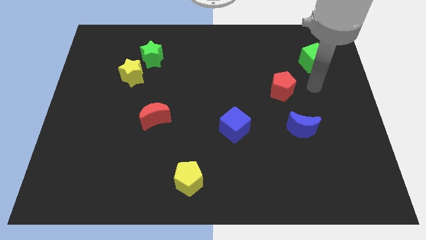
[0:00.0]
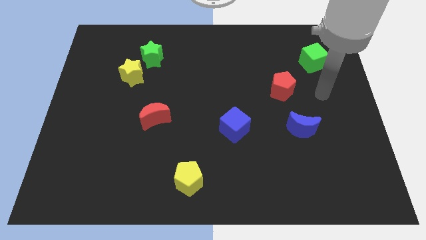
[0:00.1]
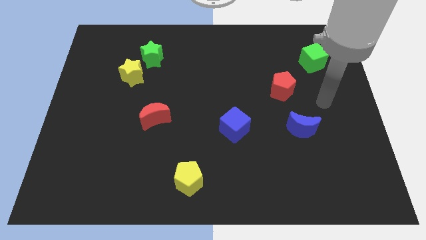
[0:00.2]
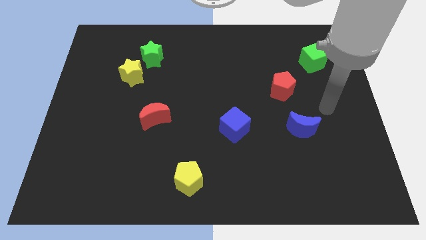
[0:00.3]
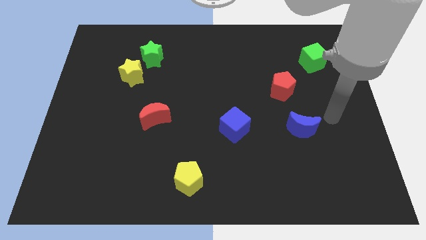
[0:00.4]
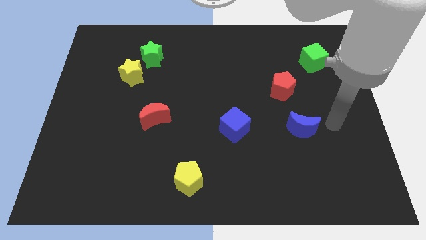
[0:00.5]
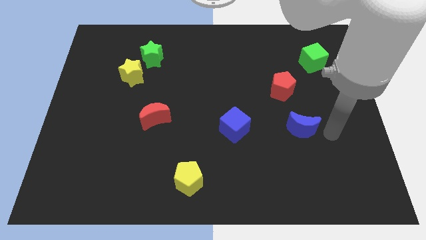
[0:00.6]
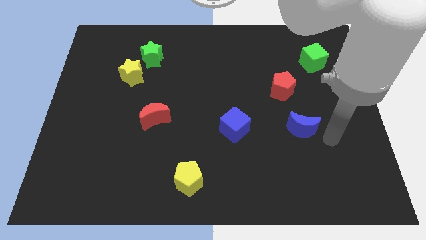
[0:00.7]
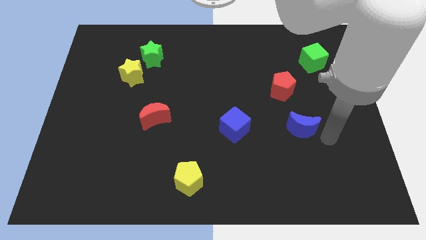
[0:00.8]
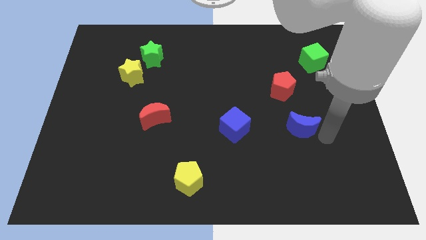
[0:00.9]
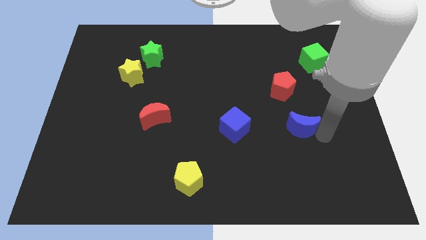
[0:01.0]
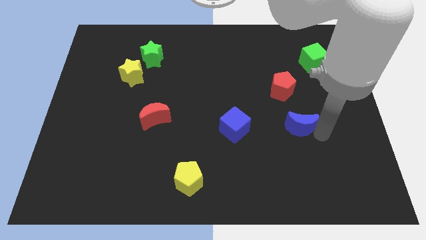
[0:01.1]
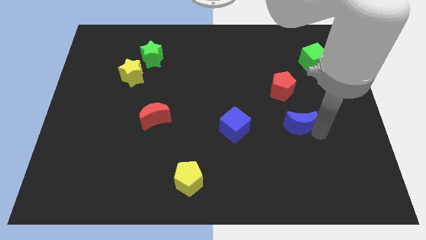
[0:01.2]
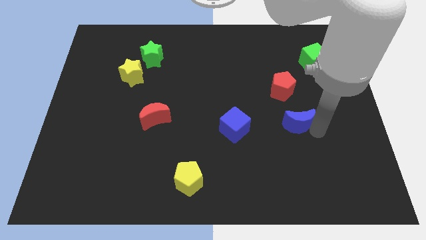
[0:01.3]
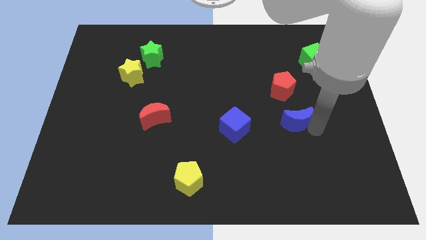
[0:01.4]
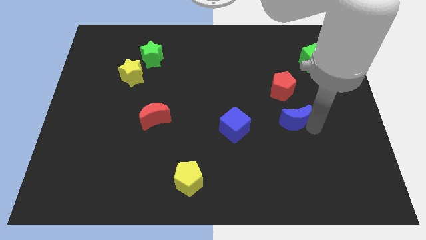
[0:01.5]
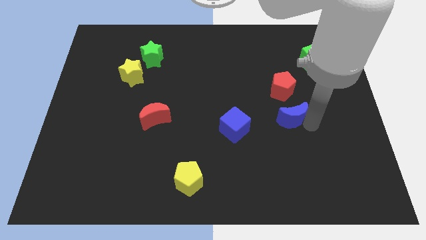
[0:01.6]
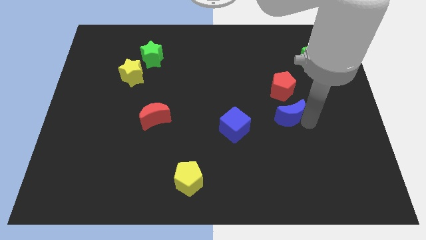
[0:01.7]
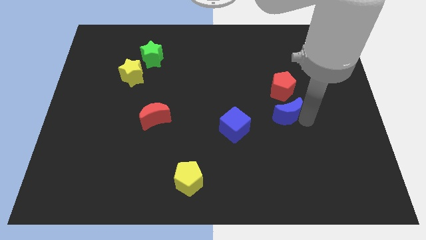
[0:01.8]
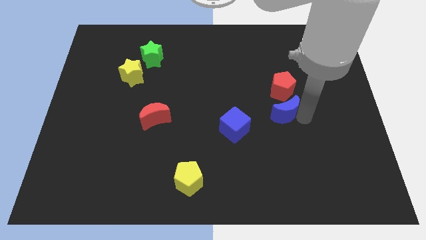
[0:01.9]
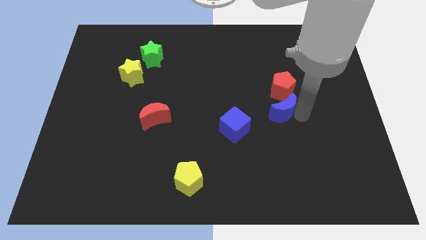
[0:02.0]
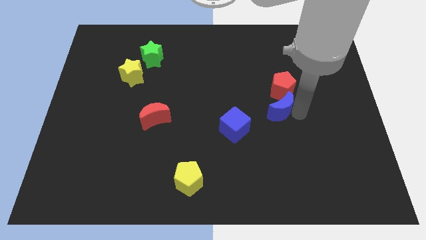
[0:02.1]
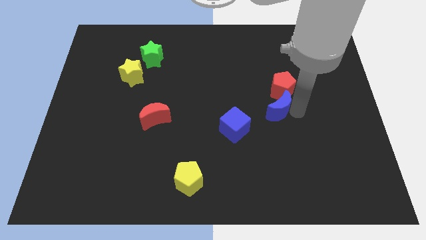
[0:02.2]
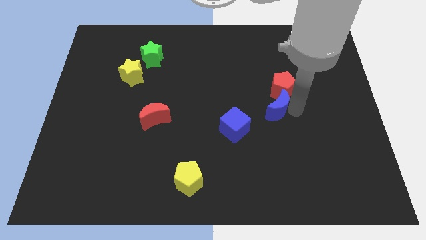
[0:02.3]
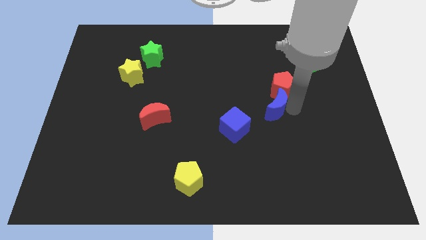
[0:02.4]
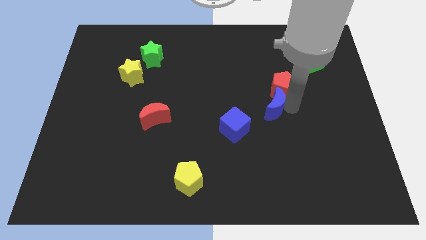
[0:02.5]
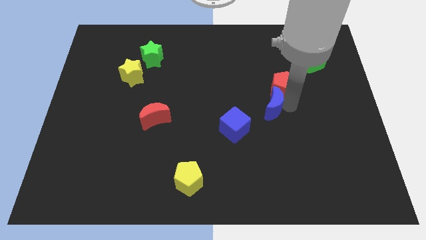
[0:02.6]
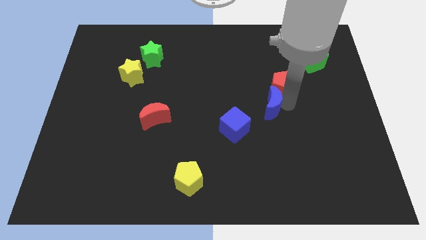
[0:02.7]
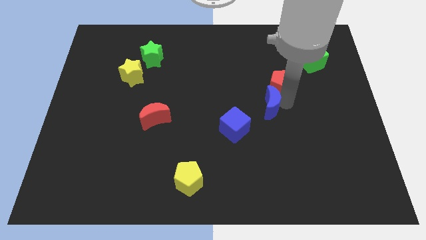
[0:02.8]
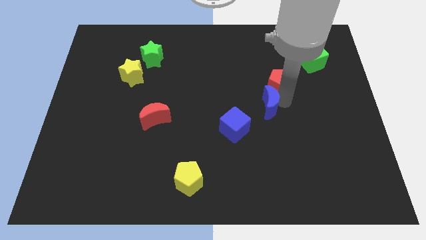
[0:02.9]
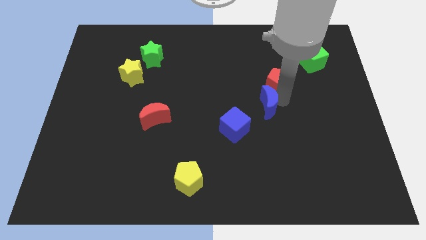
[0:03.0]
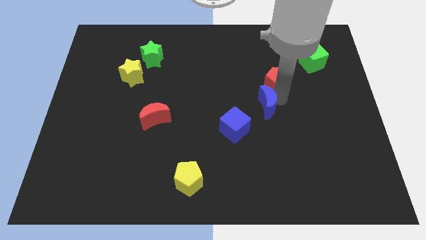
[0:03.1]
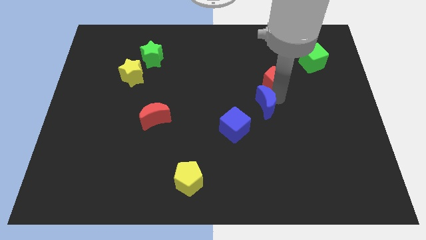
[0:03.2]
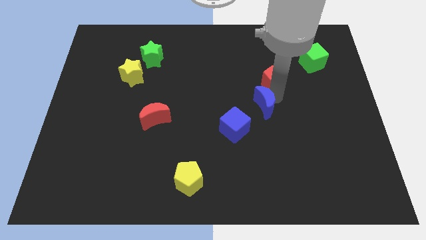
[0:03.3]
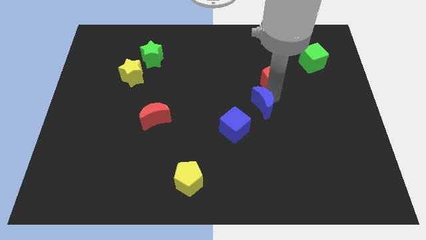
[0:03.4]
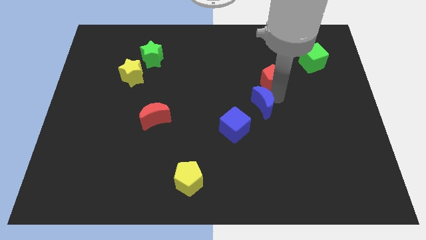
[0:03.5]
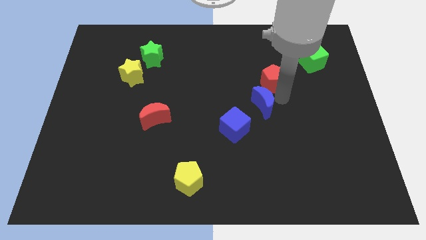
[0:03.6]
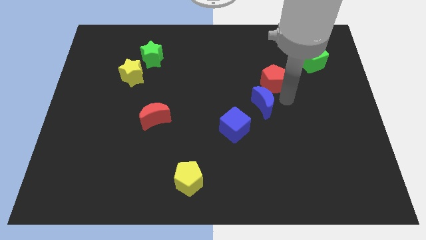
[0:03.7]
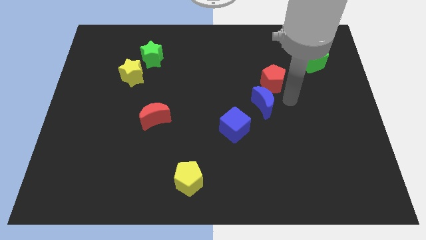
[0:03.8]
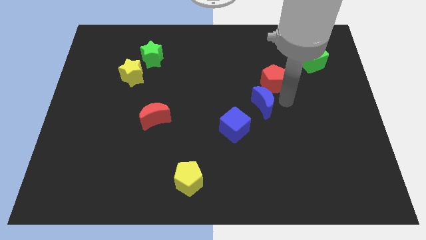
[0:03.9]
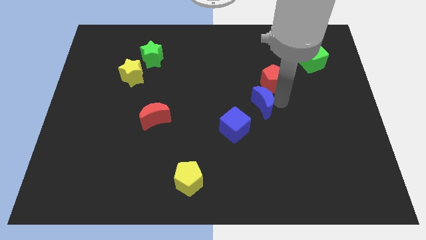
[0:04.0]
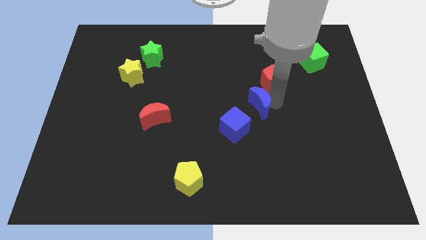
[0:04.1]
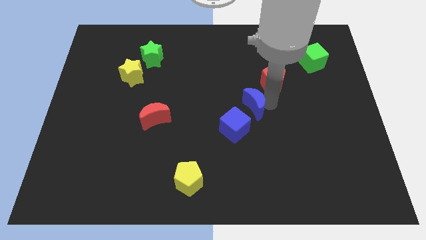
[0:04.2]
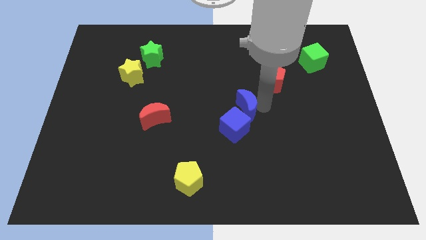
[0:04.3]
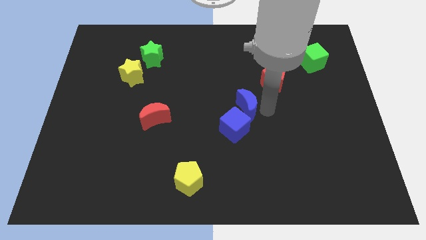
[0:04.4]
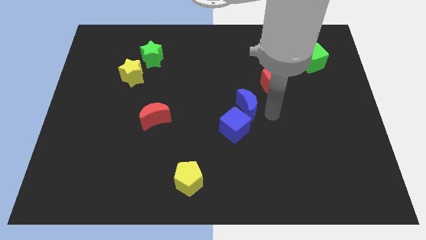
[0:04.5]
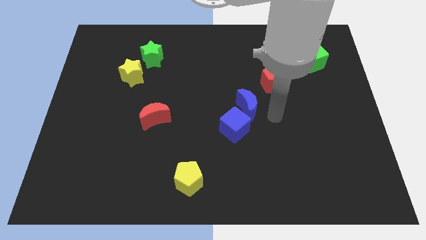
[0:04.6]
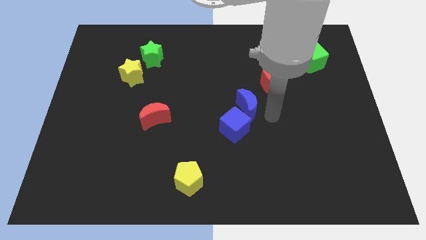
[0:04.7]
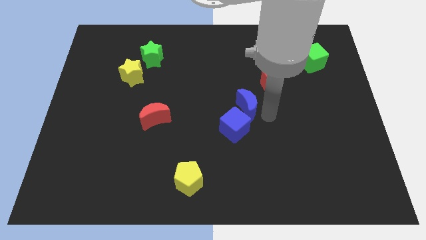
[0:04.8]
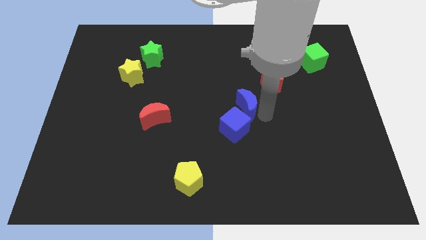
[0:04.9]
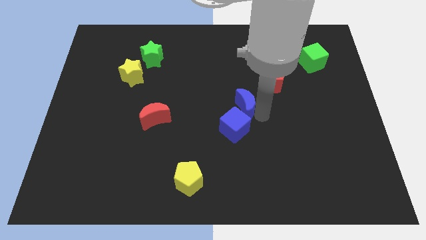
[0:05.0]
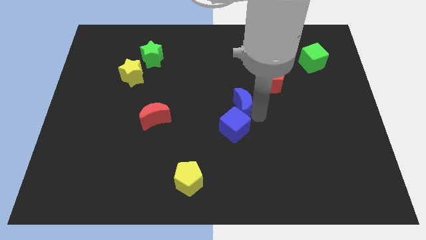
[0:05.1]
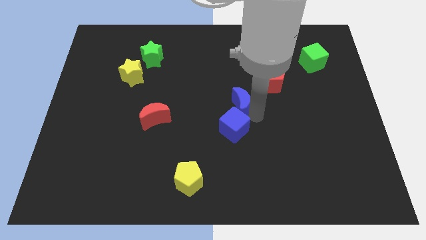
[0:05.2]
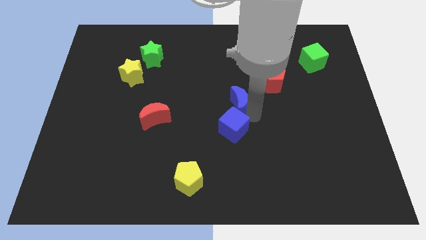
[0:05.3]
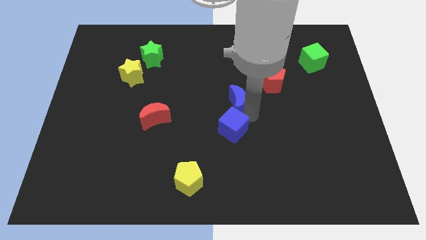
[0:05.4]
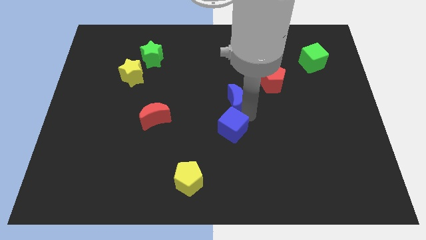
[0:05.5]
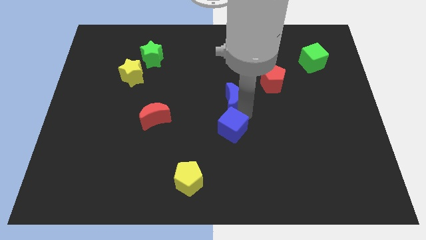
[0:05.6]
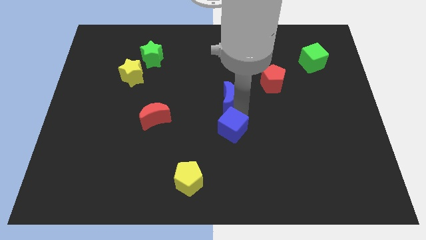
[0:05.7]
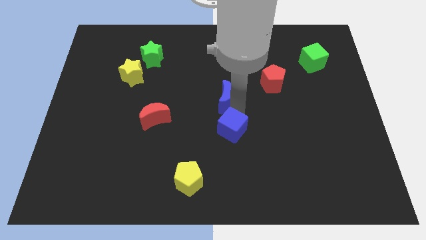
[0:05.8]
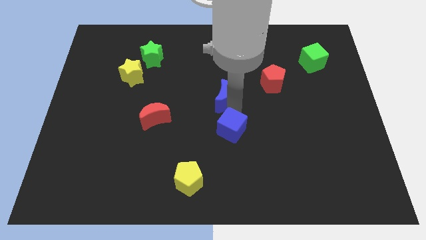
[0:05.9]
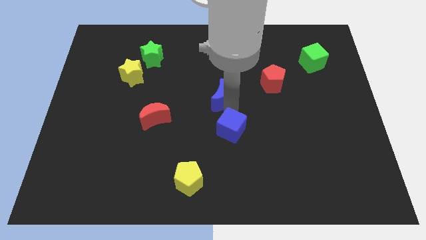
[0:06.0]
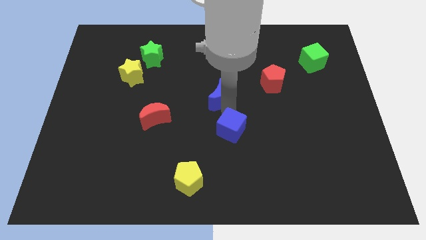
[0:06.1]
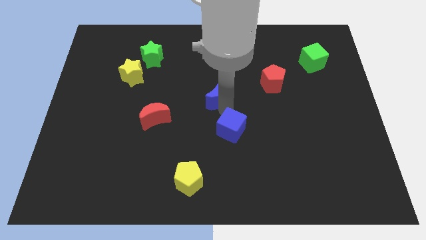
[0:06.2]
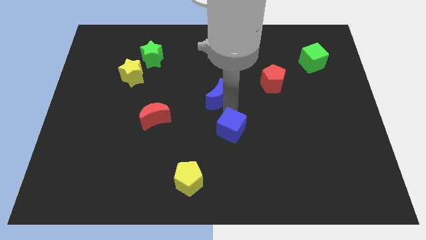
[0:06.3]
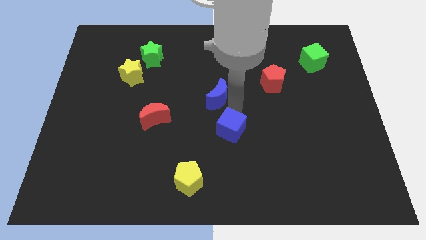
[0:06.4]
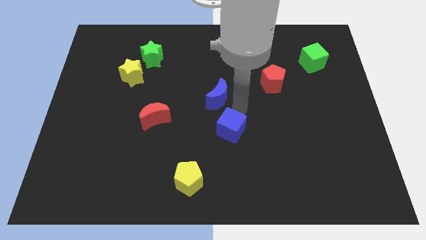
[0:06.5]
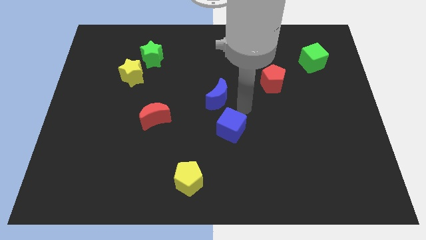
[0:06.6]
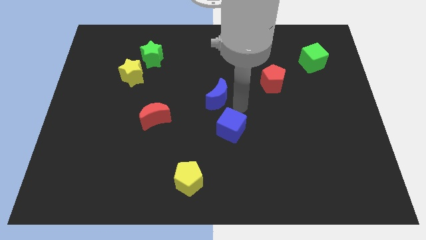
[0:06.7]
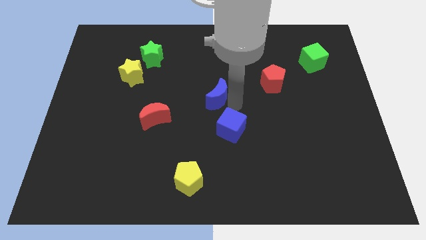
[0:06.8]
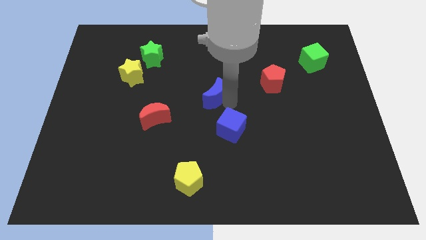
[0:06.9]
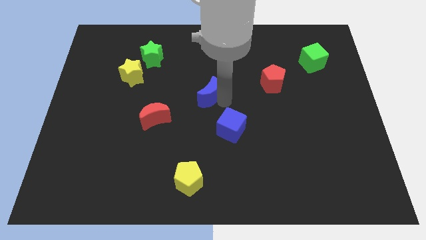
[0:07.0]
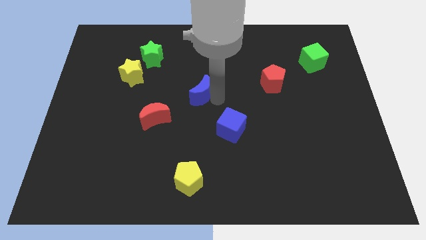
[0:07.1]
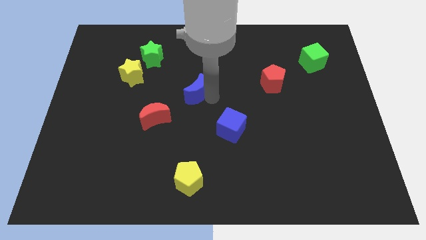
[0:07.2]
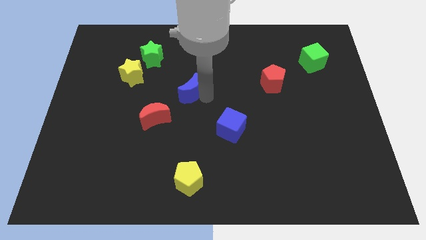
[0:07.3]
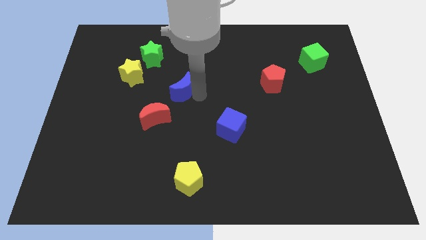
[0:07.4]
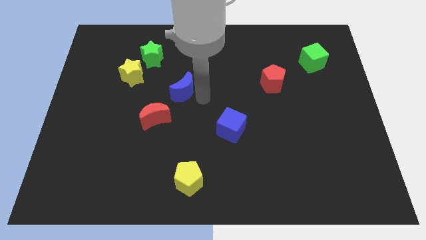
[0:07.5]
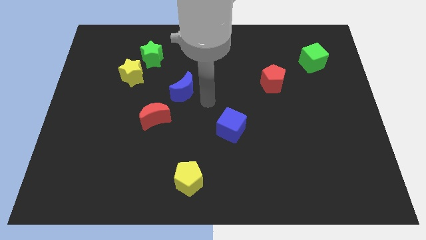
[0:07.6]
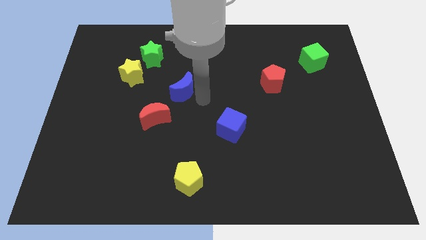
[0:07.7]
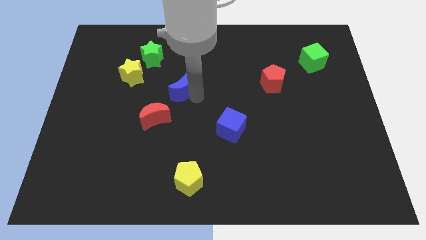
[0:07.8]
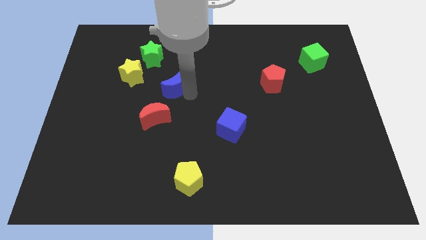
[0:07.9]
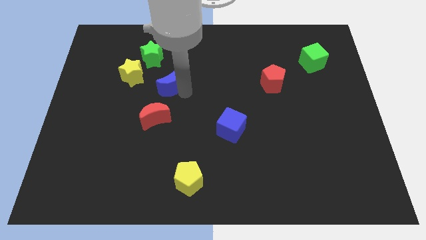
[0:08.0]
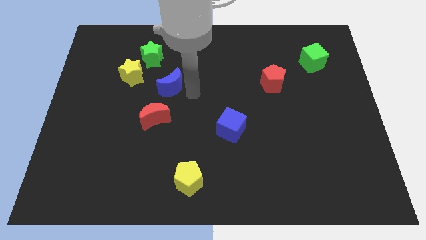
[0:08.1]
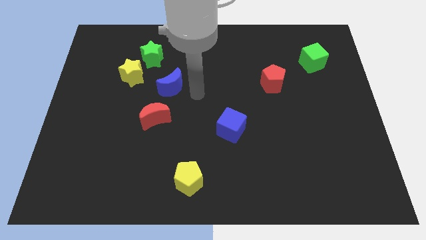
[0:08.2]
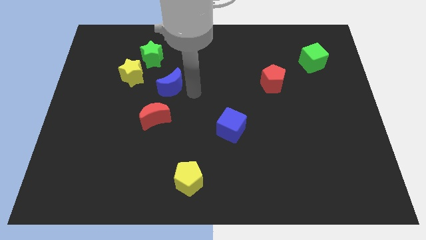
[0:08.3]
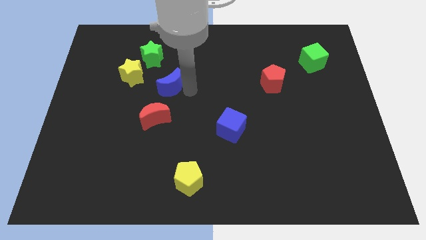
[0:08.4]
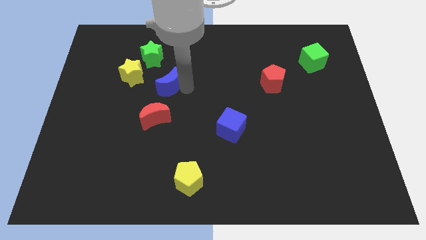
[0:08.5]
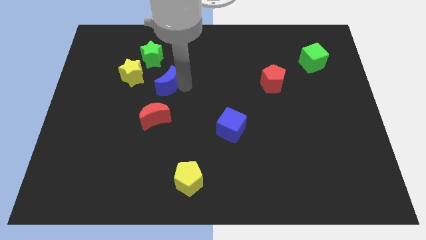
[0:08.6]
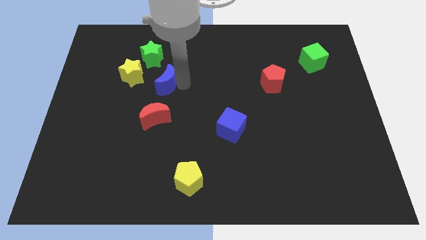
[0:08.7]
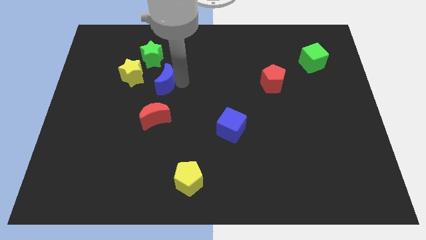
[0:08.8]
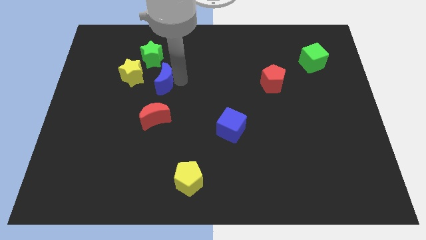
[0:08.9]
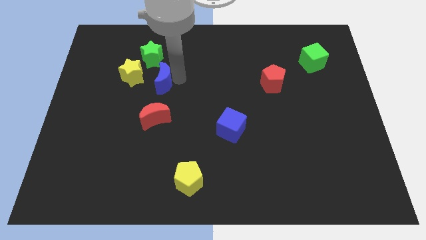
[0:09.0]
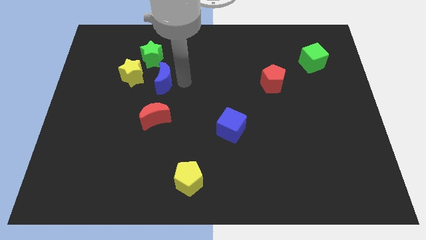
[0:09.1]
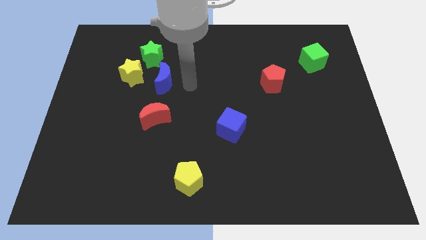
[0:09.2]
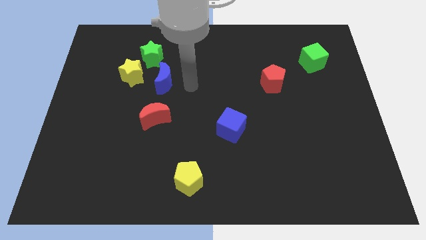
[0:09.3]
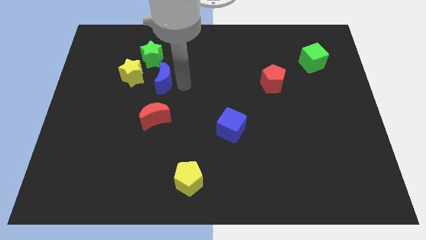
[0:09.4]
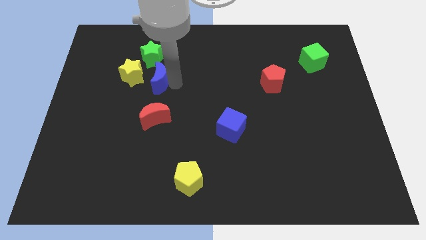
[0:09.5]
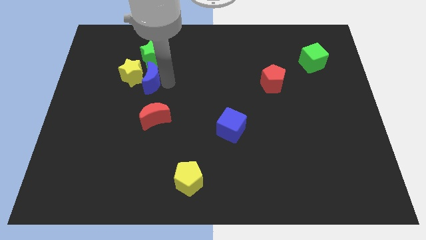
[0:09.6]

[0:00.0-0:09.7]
move the blue moon towards the yellow star
